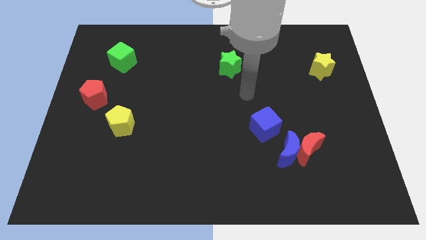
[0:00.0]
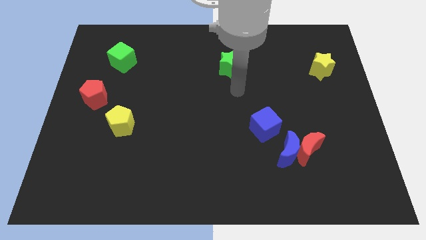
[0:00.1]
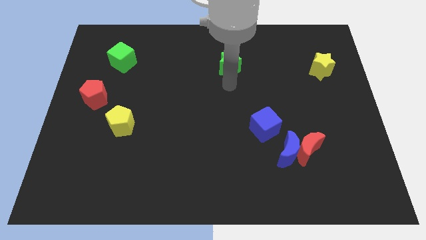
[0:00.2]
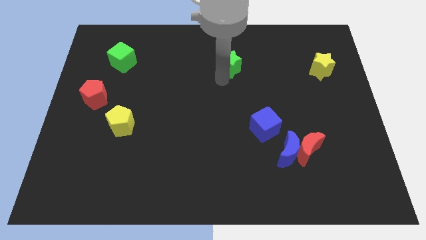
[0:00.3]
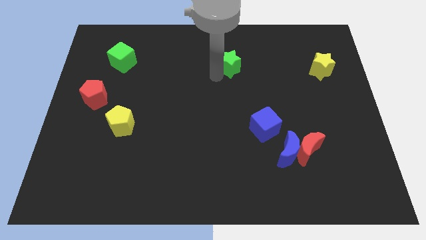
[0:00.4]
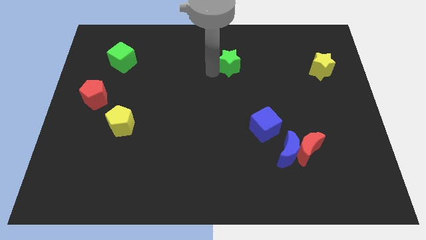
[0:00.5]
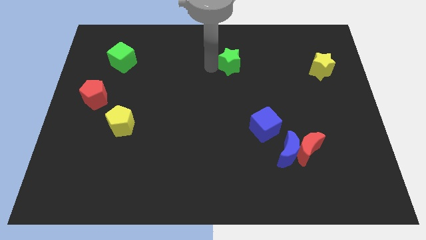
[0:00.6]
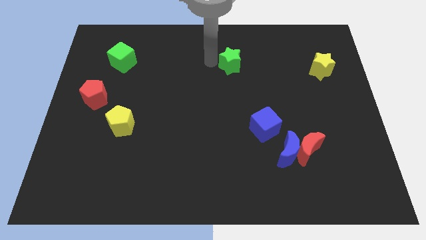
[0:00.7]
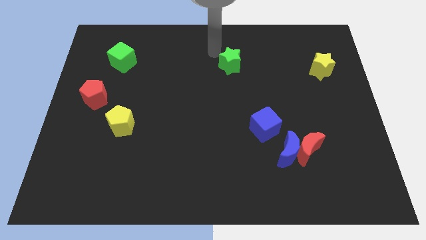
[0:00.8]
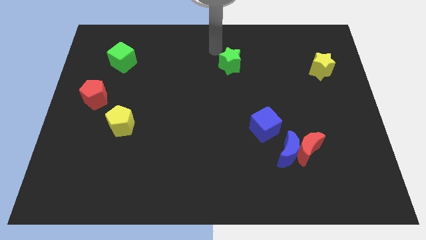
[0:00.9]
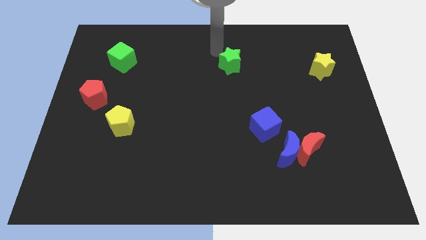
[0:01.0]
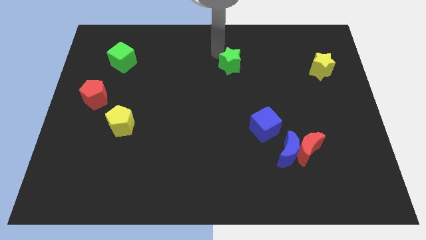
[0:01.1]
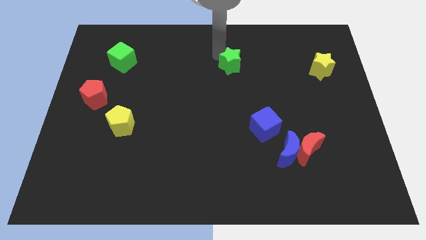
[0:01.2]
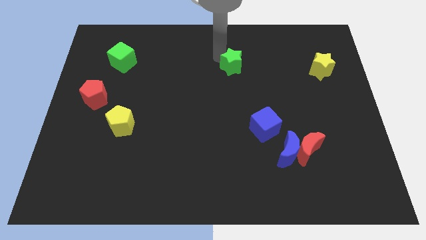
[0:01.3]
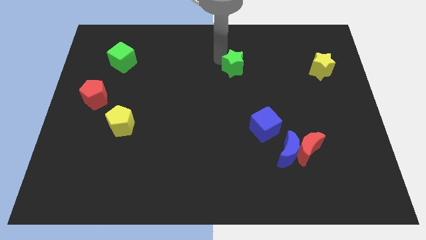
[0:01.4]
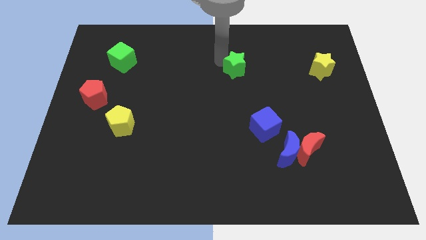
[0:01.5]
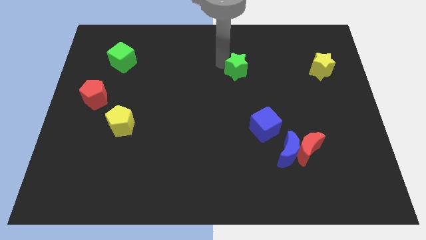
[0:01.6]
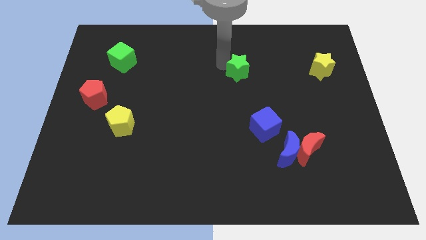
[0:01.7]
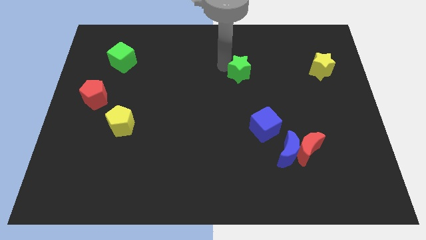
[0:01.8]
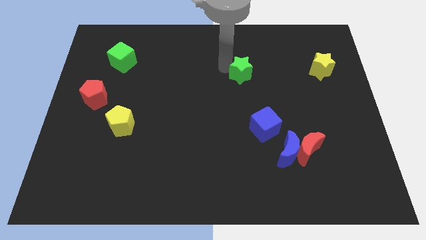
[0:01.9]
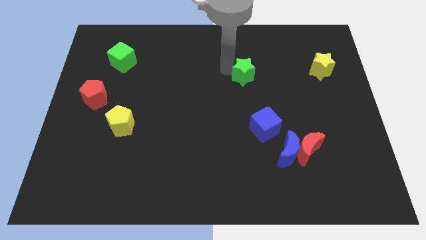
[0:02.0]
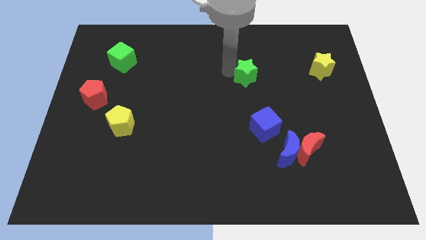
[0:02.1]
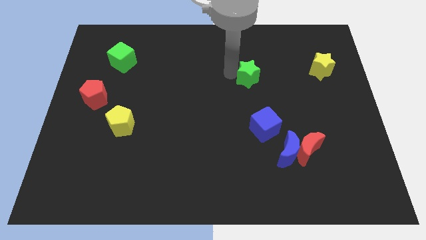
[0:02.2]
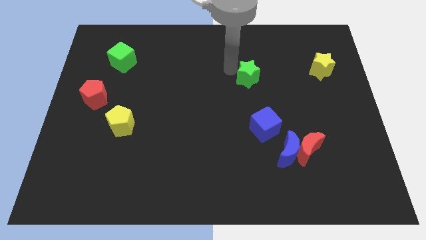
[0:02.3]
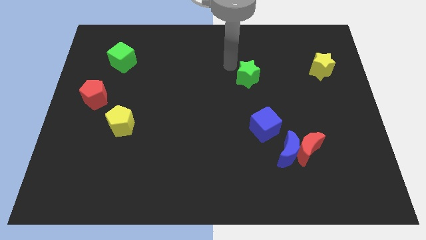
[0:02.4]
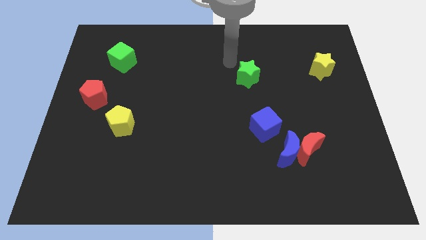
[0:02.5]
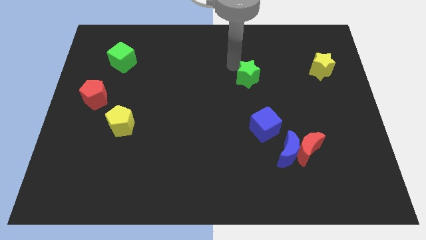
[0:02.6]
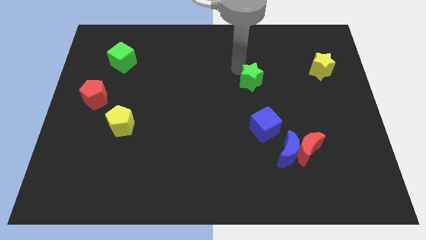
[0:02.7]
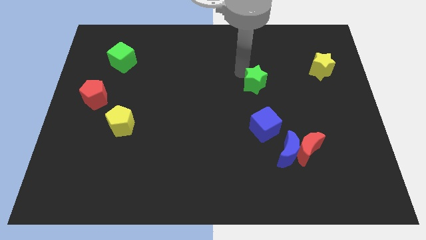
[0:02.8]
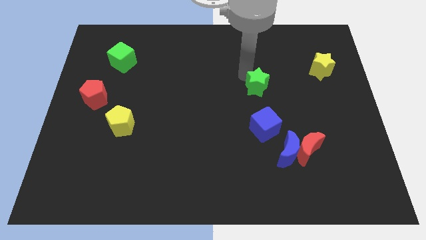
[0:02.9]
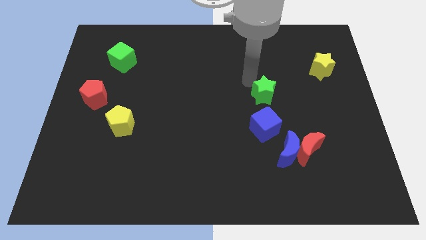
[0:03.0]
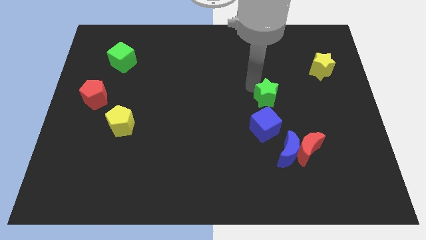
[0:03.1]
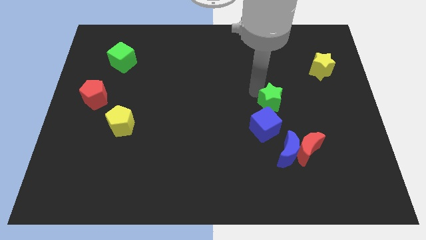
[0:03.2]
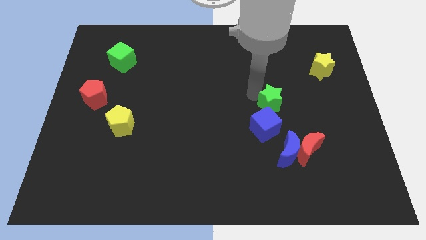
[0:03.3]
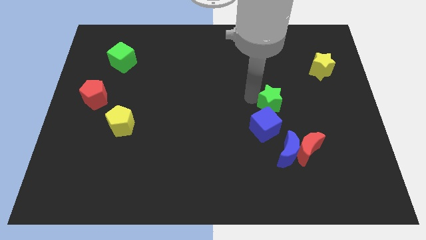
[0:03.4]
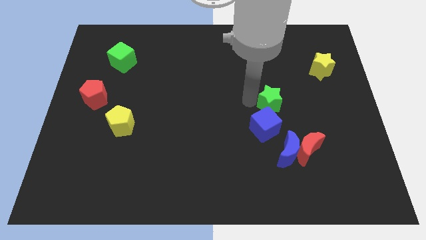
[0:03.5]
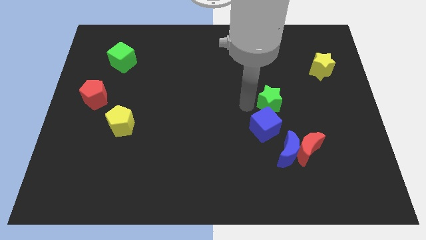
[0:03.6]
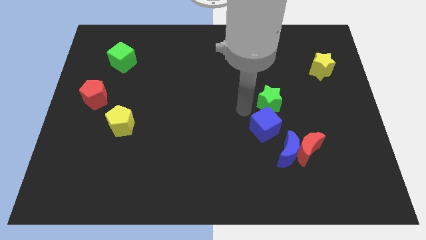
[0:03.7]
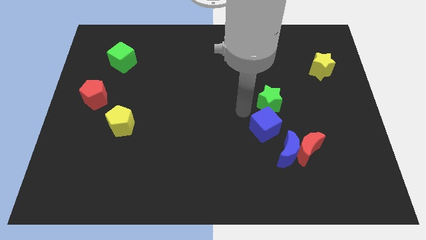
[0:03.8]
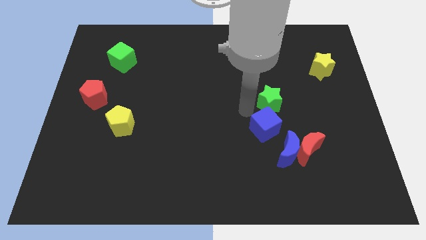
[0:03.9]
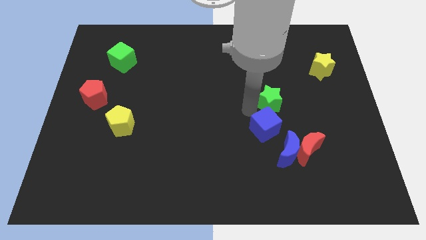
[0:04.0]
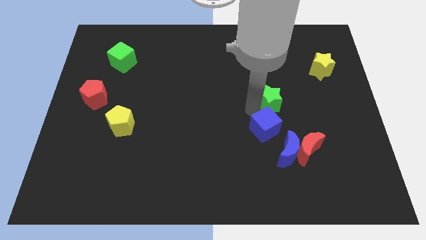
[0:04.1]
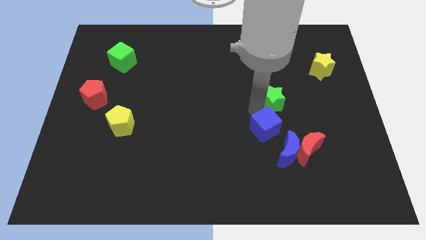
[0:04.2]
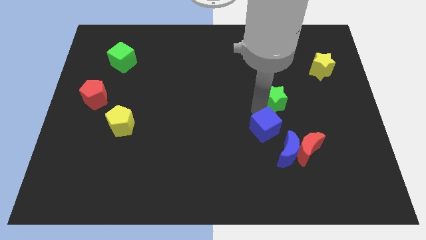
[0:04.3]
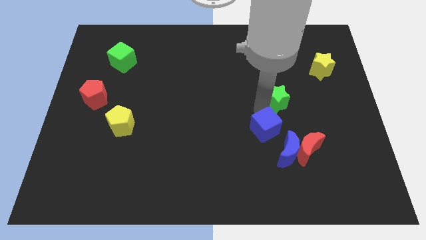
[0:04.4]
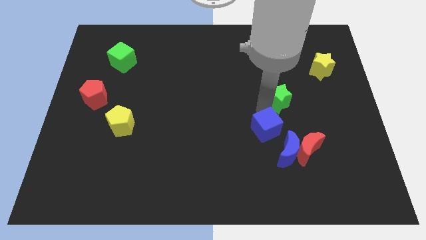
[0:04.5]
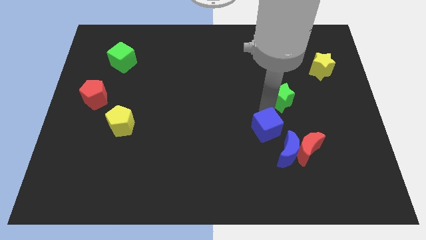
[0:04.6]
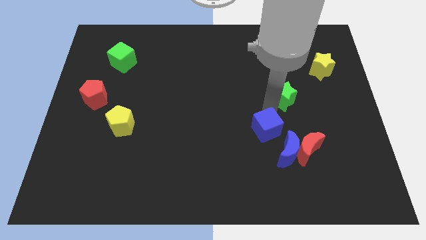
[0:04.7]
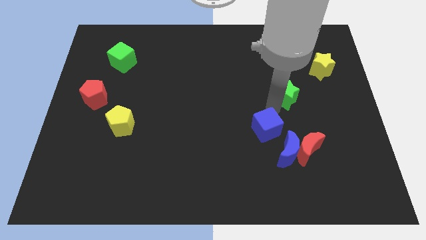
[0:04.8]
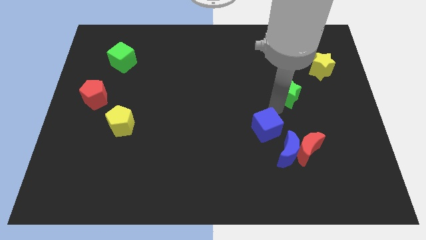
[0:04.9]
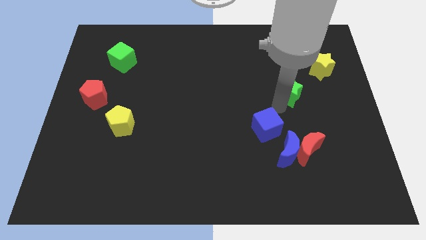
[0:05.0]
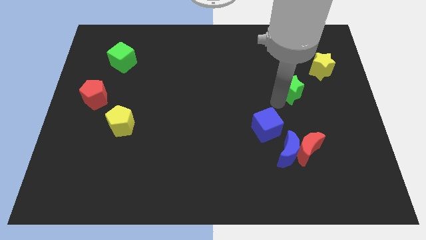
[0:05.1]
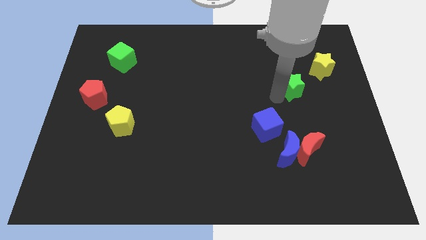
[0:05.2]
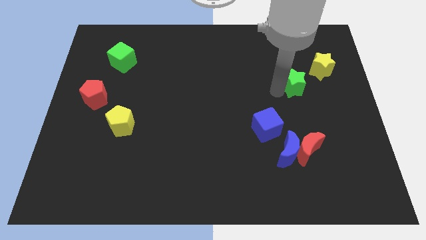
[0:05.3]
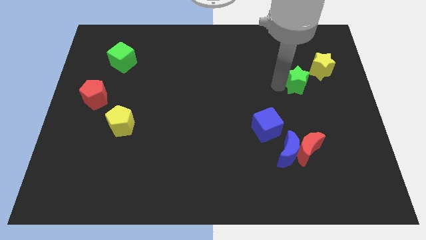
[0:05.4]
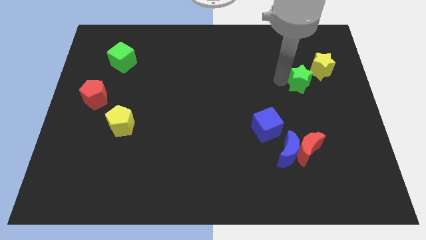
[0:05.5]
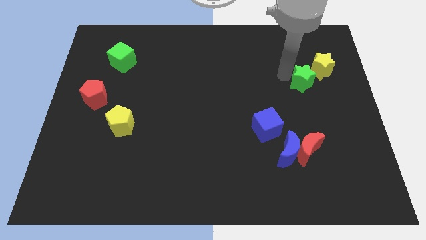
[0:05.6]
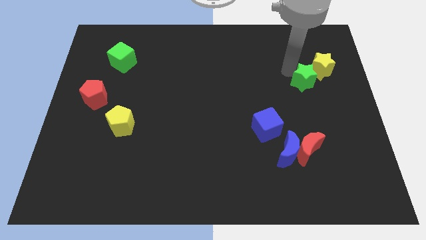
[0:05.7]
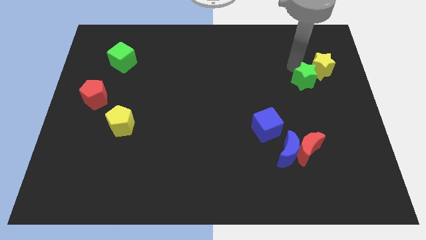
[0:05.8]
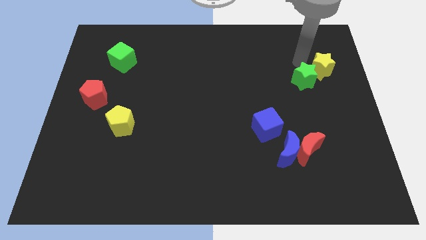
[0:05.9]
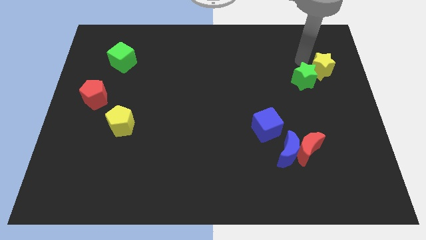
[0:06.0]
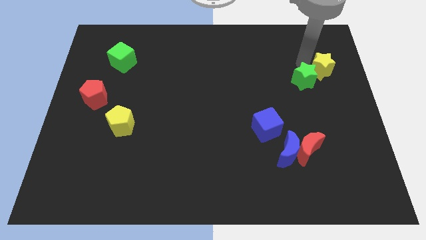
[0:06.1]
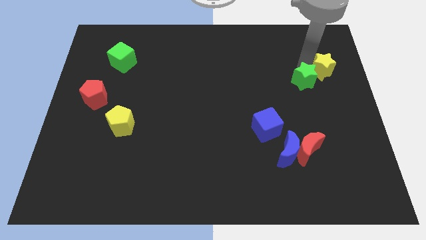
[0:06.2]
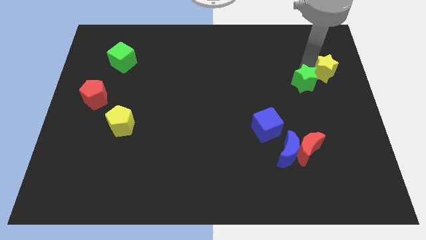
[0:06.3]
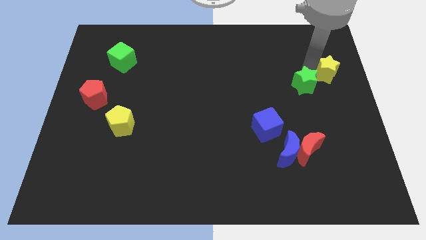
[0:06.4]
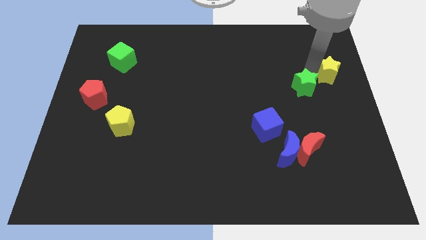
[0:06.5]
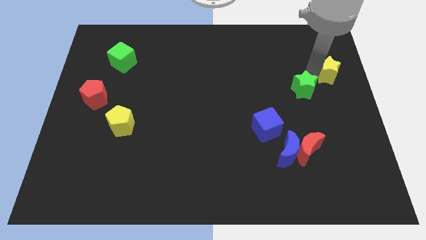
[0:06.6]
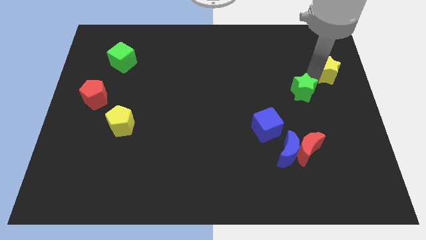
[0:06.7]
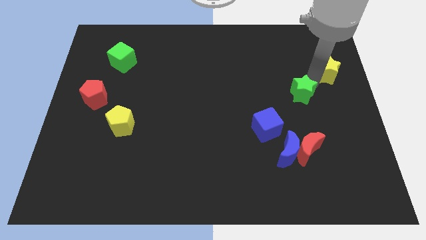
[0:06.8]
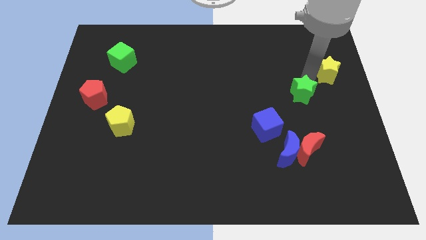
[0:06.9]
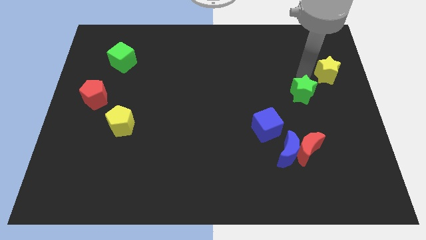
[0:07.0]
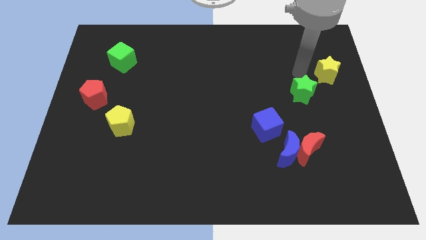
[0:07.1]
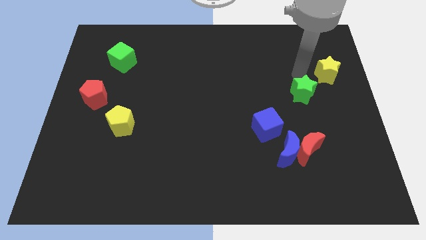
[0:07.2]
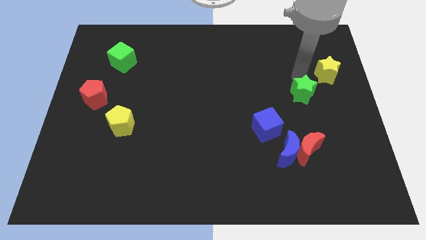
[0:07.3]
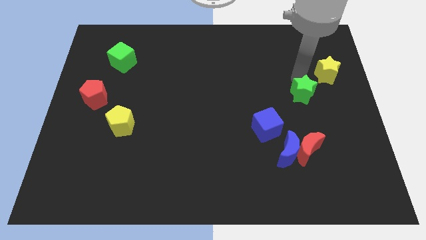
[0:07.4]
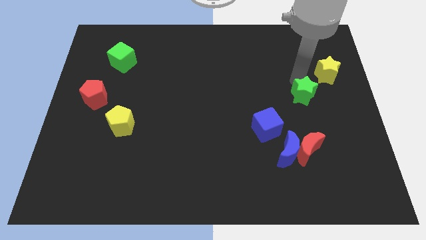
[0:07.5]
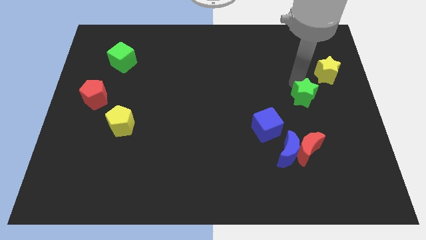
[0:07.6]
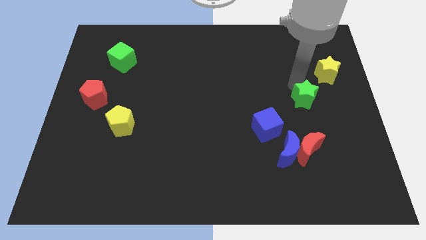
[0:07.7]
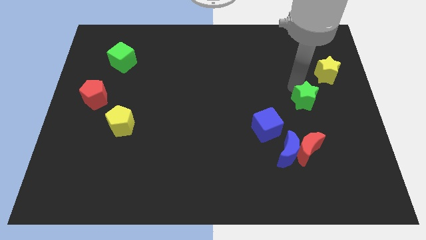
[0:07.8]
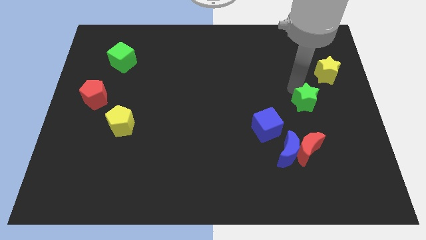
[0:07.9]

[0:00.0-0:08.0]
move the green star diagonally down and to the right
